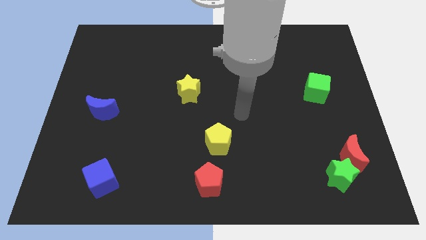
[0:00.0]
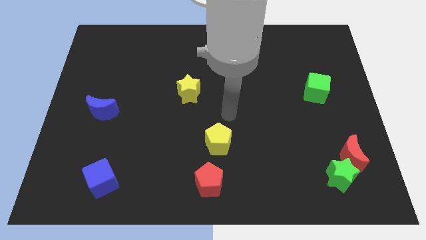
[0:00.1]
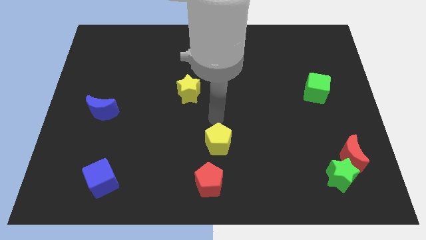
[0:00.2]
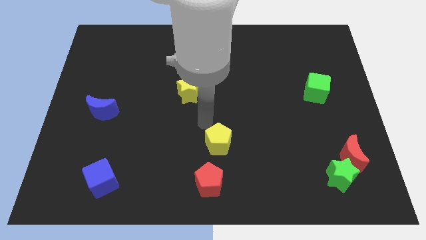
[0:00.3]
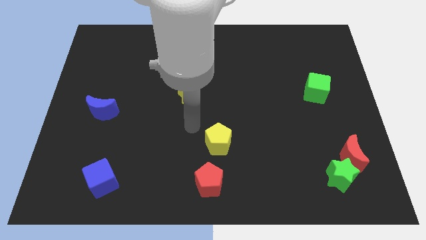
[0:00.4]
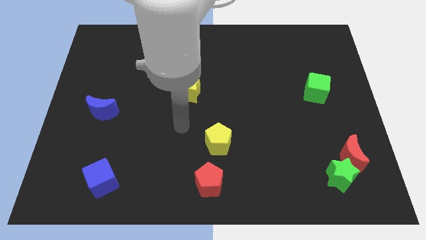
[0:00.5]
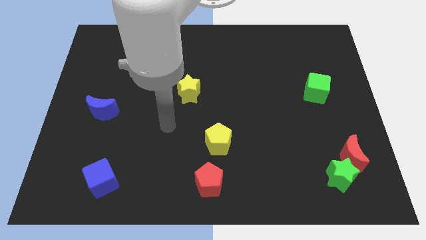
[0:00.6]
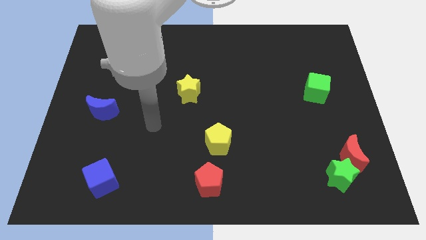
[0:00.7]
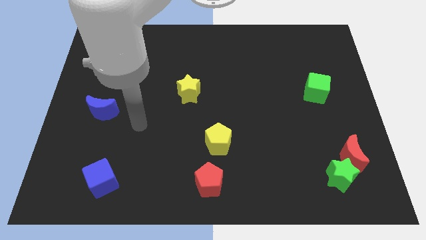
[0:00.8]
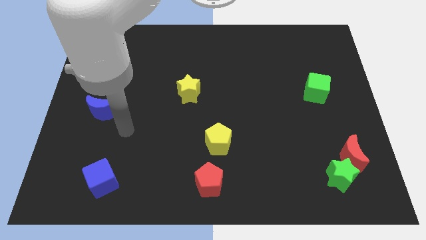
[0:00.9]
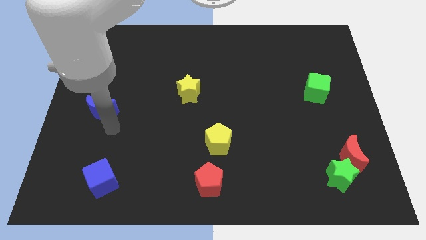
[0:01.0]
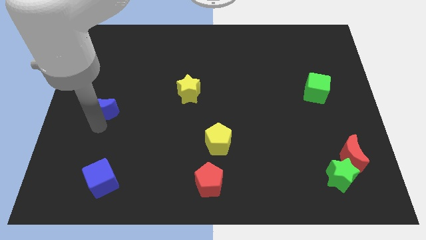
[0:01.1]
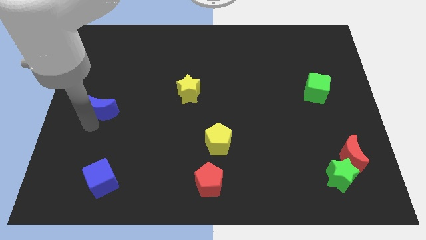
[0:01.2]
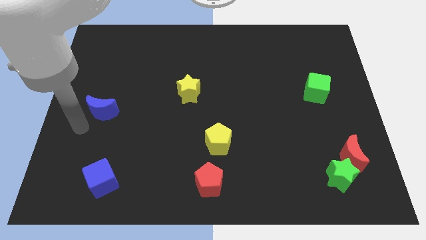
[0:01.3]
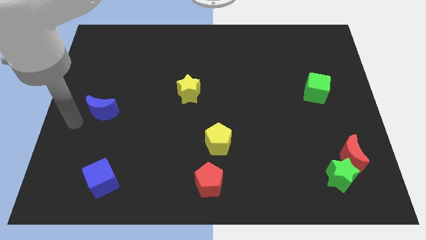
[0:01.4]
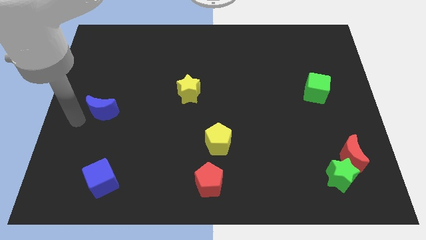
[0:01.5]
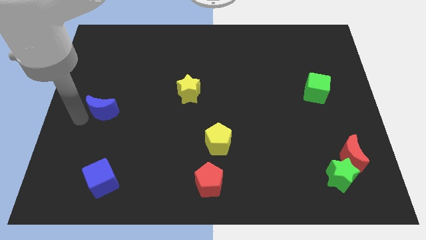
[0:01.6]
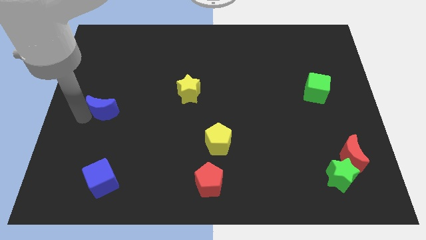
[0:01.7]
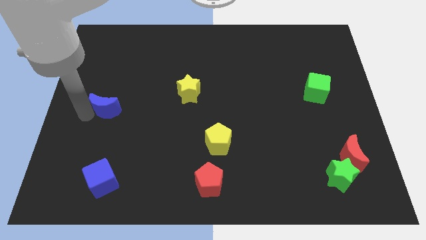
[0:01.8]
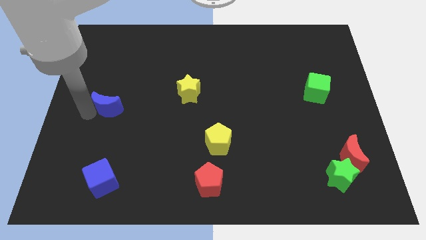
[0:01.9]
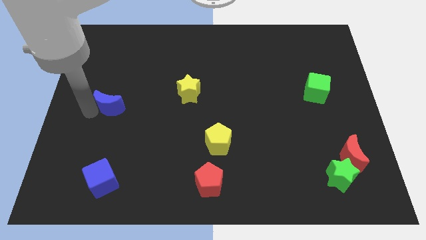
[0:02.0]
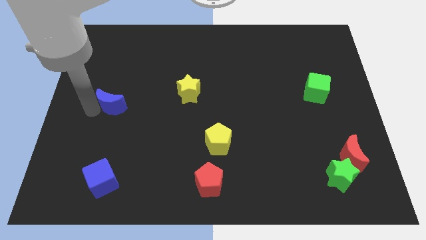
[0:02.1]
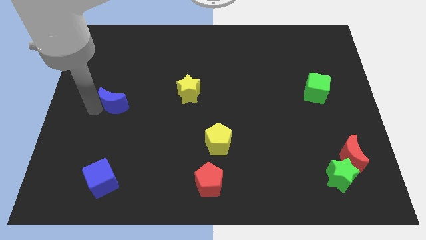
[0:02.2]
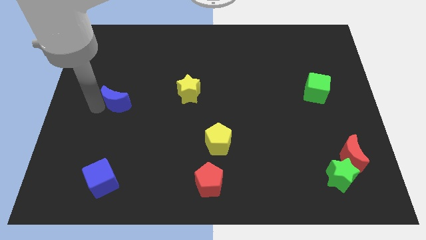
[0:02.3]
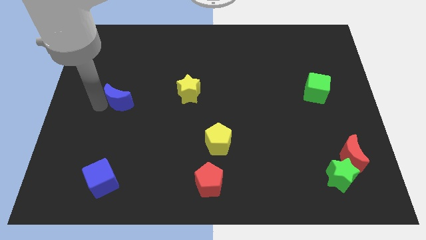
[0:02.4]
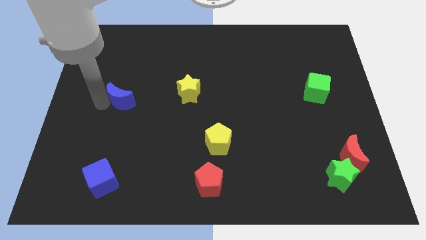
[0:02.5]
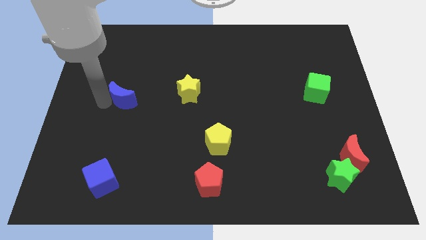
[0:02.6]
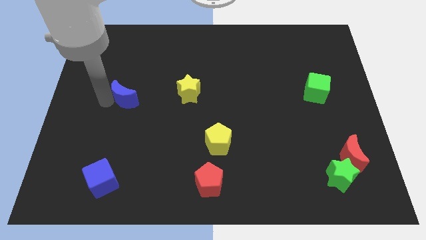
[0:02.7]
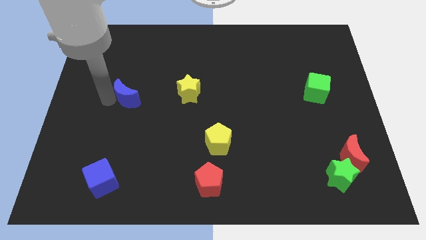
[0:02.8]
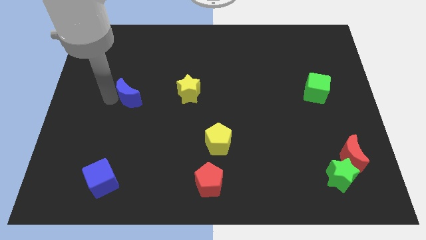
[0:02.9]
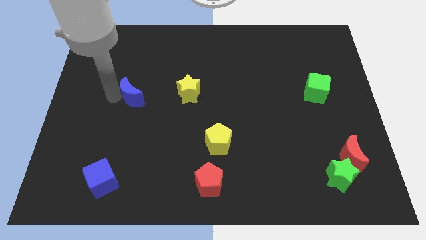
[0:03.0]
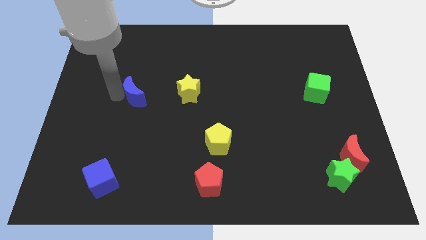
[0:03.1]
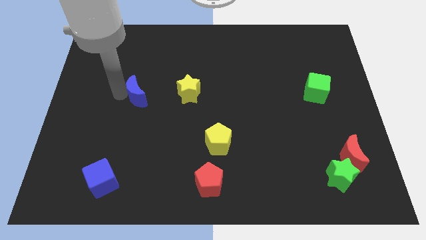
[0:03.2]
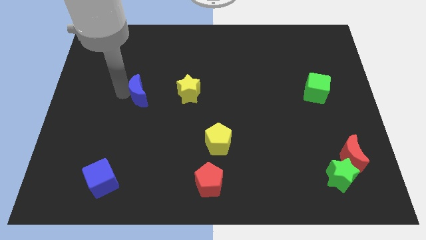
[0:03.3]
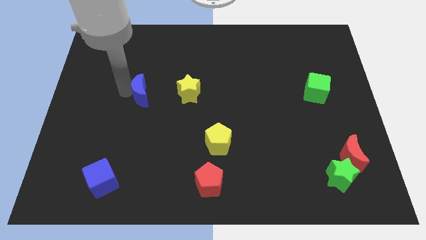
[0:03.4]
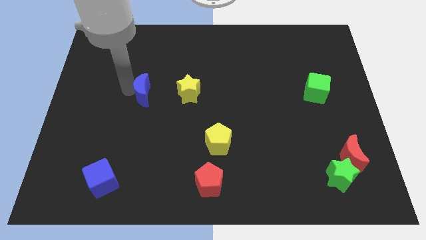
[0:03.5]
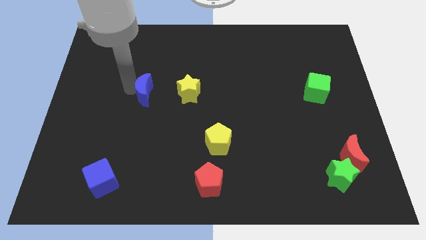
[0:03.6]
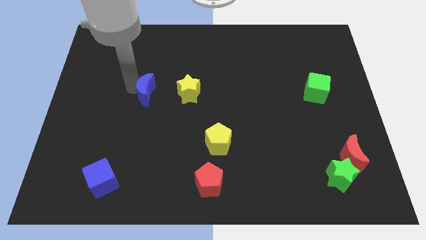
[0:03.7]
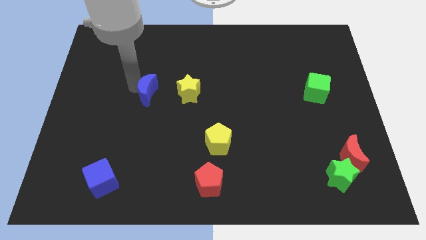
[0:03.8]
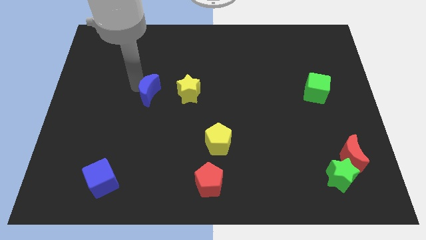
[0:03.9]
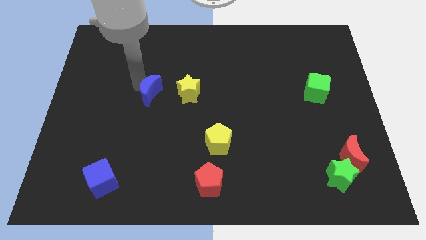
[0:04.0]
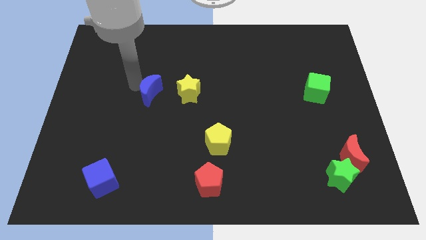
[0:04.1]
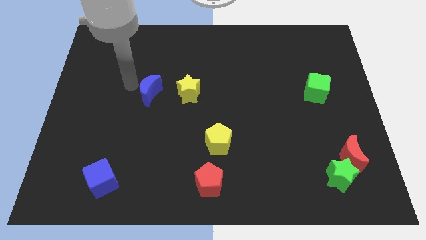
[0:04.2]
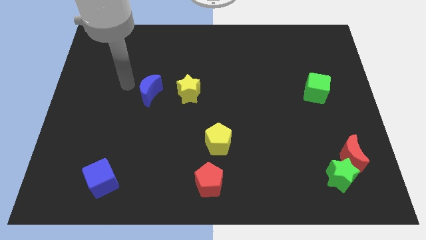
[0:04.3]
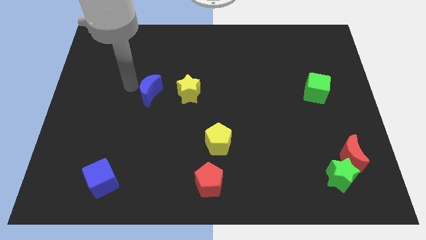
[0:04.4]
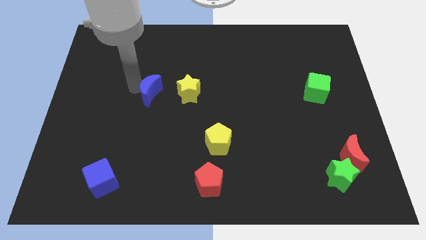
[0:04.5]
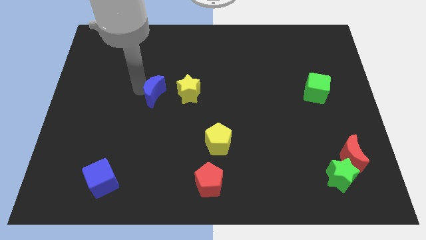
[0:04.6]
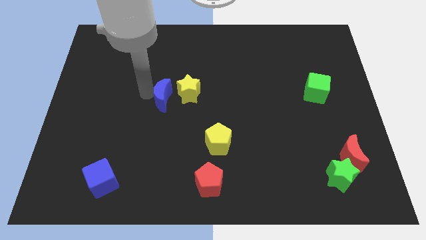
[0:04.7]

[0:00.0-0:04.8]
slide the blue moon towards the yellow star

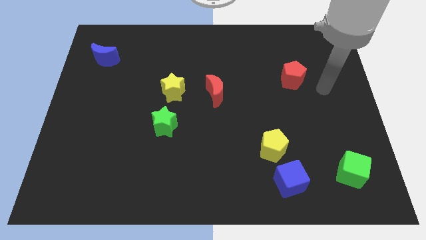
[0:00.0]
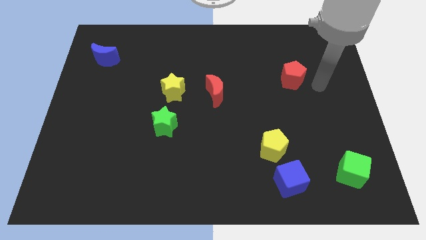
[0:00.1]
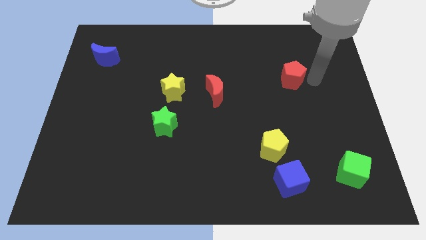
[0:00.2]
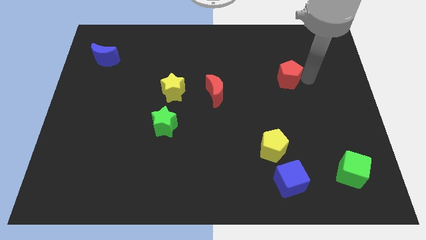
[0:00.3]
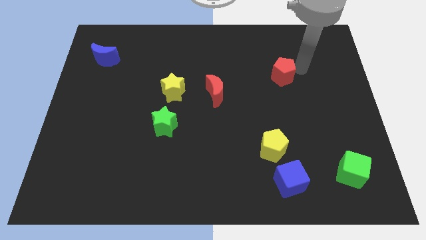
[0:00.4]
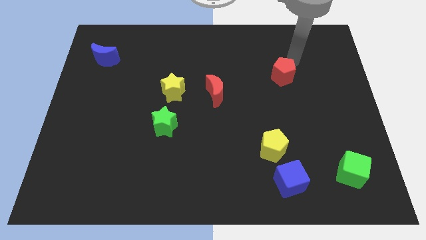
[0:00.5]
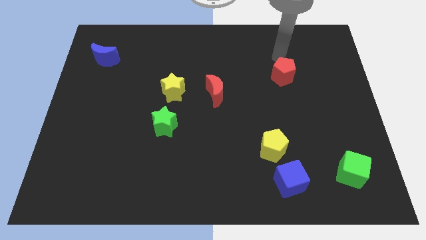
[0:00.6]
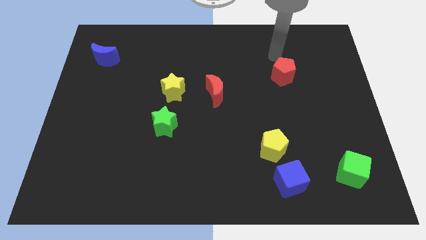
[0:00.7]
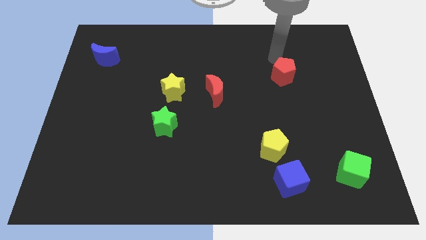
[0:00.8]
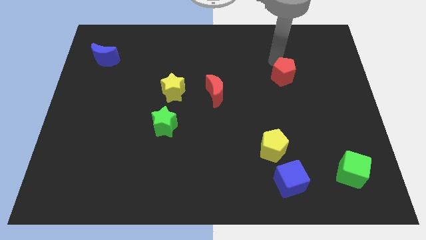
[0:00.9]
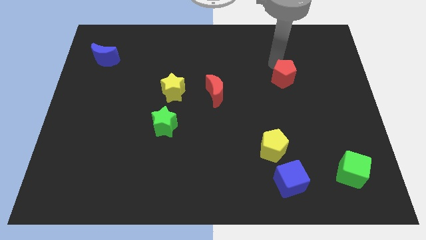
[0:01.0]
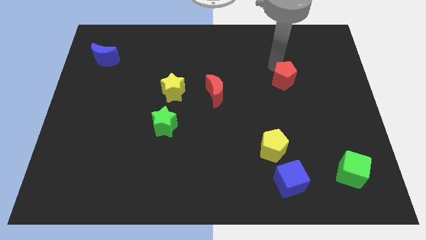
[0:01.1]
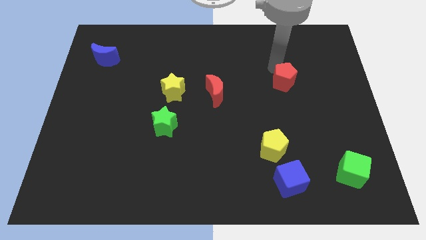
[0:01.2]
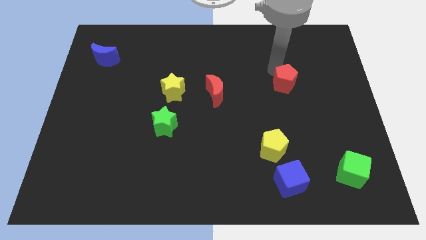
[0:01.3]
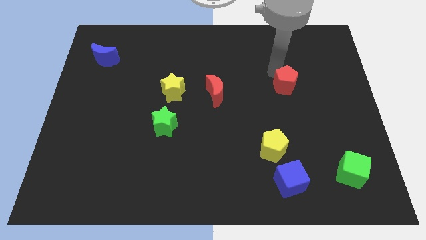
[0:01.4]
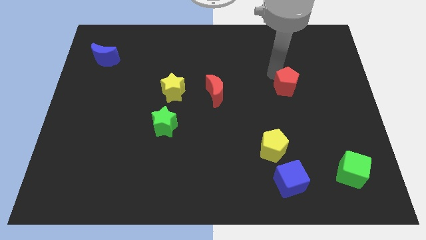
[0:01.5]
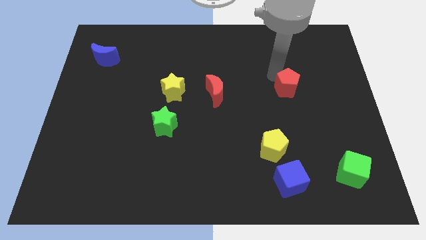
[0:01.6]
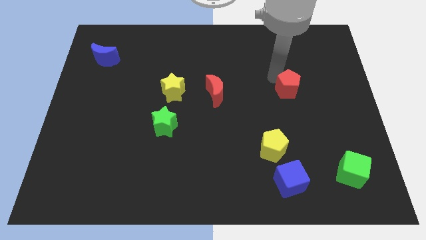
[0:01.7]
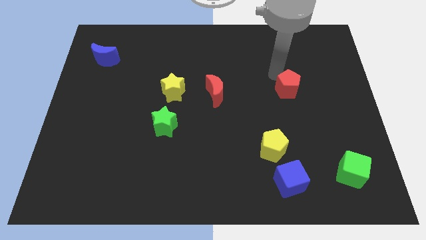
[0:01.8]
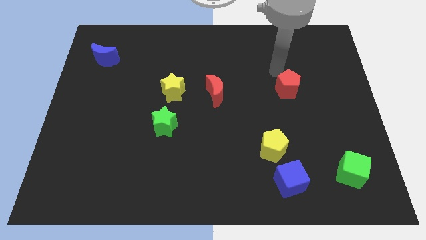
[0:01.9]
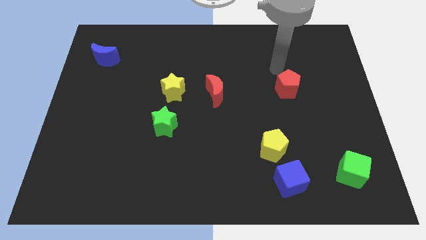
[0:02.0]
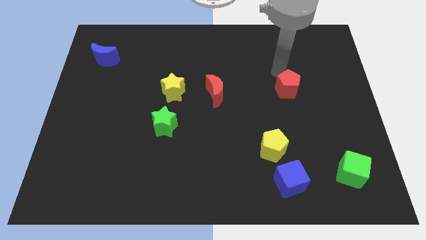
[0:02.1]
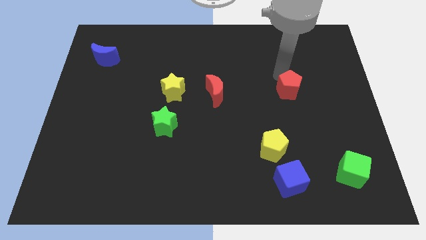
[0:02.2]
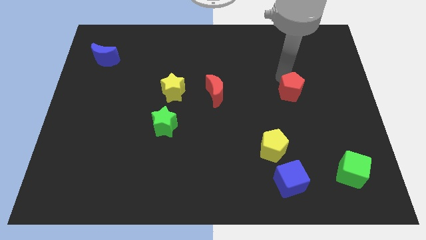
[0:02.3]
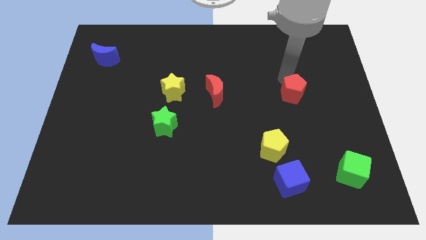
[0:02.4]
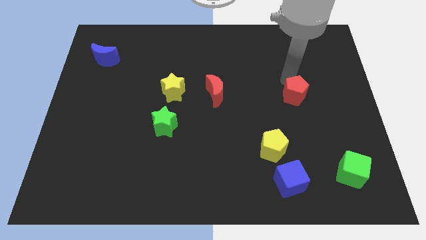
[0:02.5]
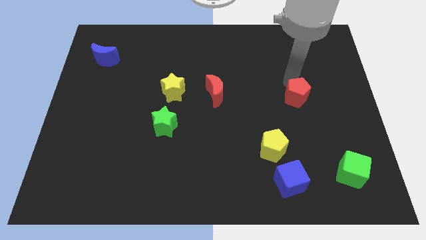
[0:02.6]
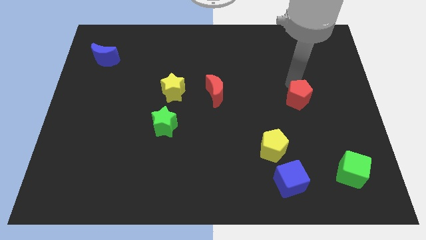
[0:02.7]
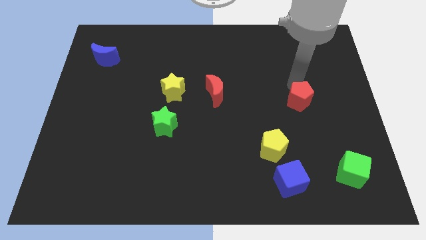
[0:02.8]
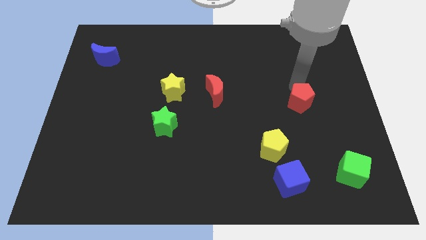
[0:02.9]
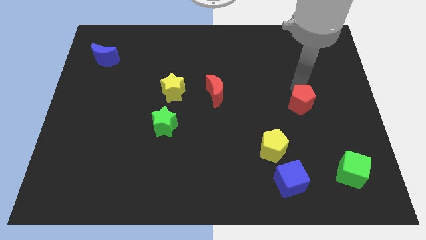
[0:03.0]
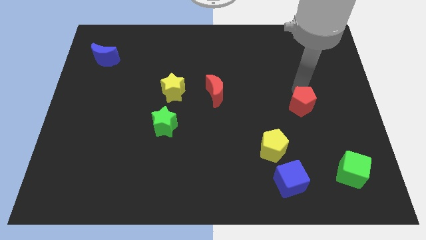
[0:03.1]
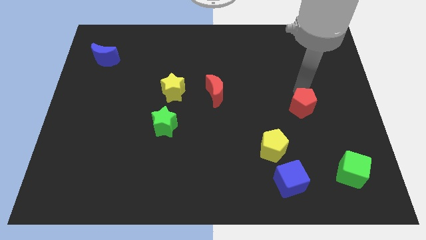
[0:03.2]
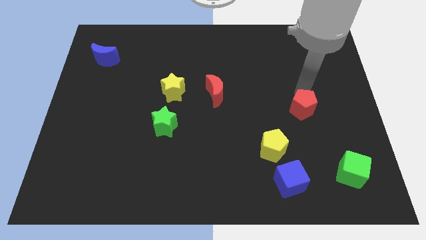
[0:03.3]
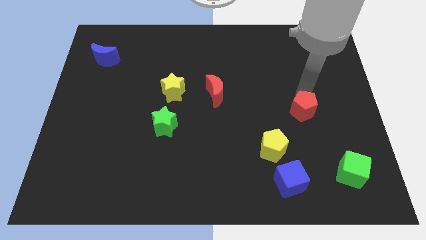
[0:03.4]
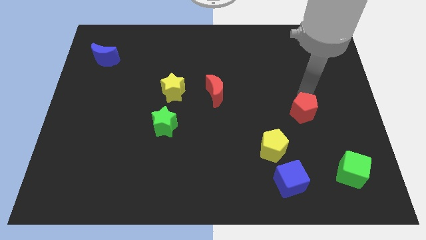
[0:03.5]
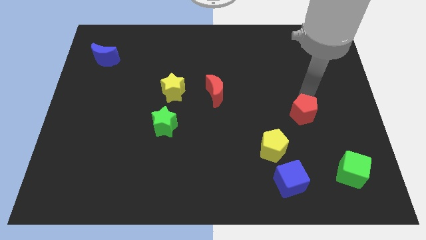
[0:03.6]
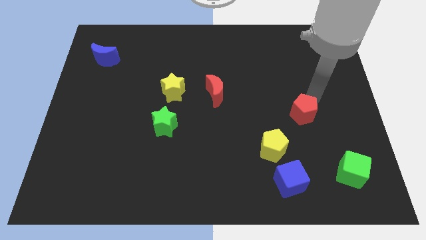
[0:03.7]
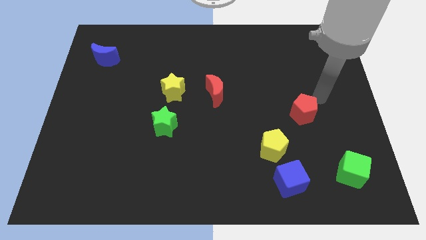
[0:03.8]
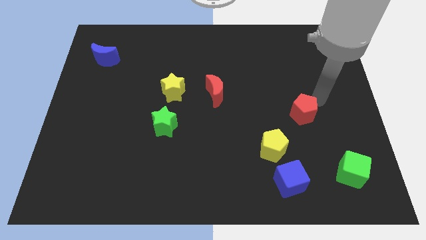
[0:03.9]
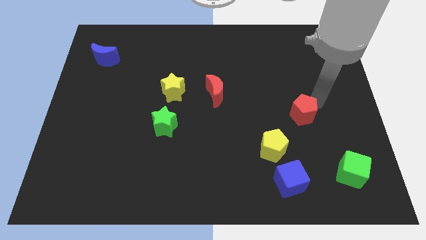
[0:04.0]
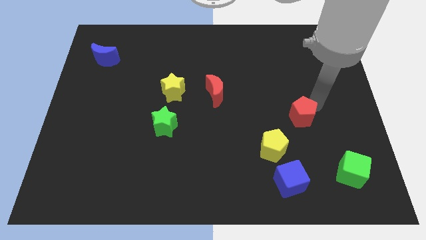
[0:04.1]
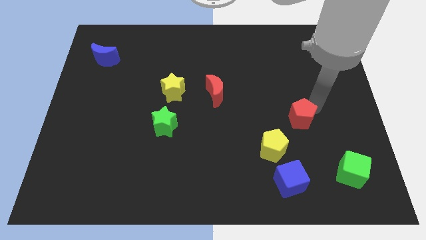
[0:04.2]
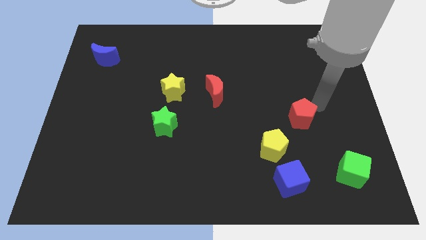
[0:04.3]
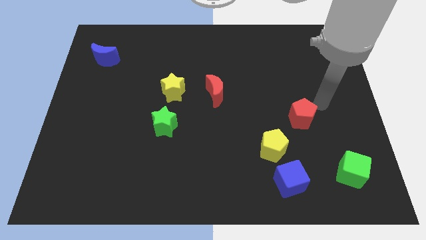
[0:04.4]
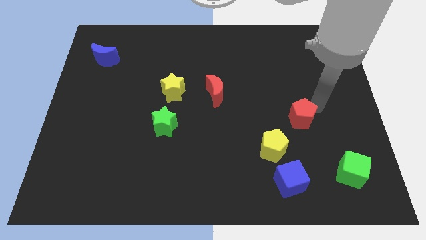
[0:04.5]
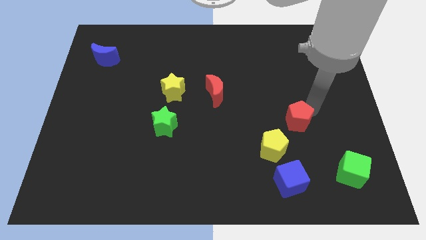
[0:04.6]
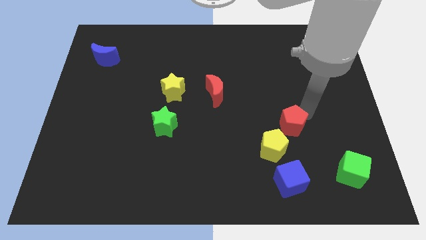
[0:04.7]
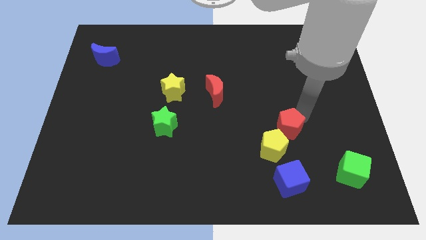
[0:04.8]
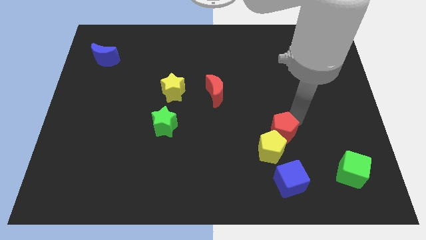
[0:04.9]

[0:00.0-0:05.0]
move the red pentagon next to the yellow pentagon
